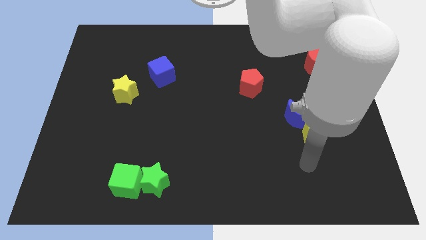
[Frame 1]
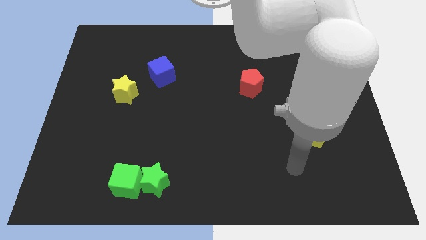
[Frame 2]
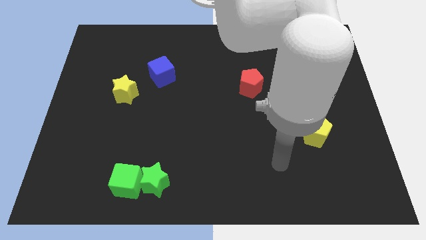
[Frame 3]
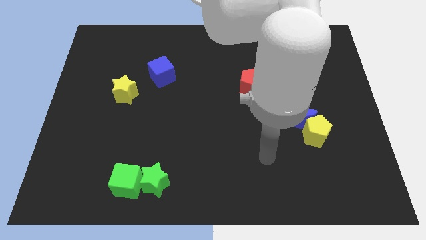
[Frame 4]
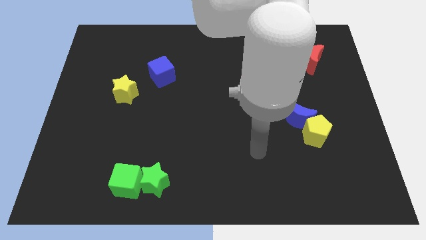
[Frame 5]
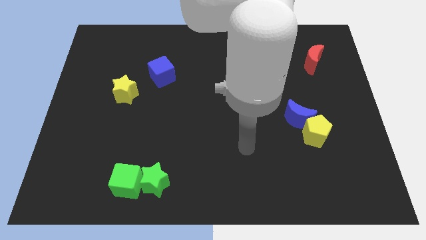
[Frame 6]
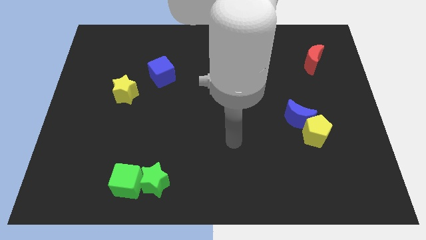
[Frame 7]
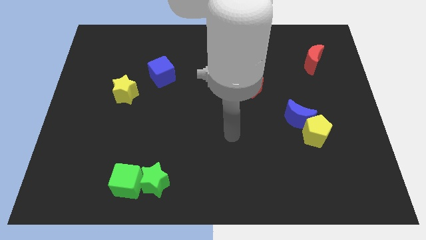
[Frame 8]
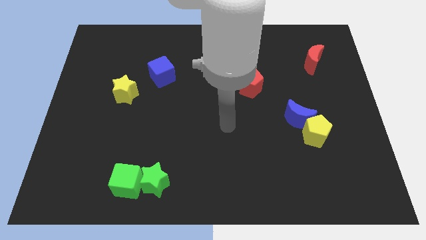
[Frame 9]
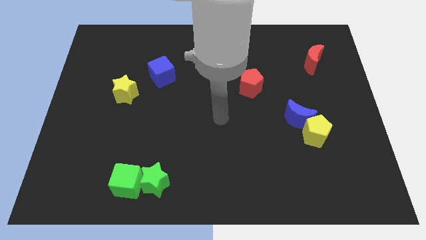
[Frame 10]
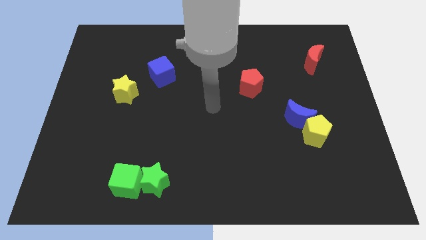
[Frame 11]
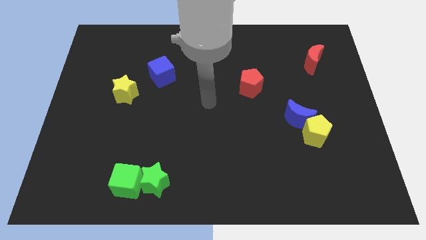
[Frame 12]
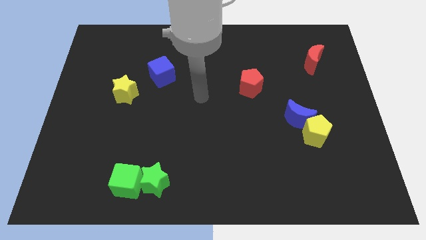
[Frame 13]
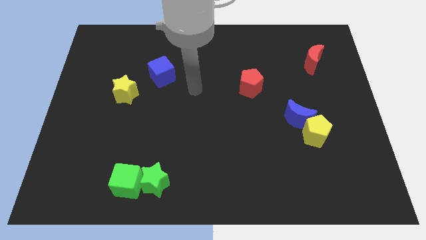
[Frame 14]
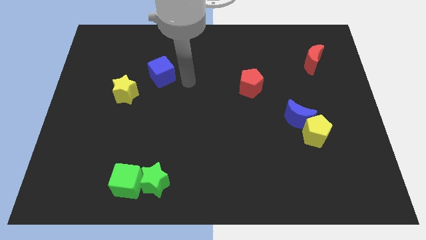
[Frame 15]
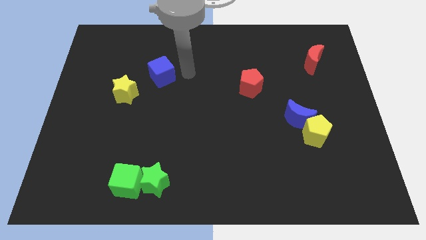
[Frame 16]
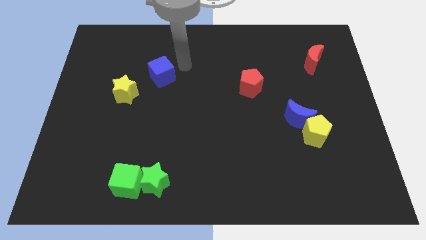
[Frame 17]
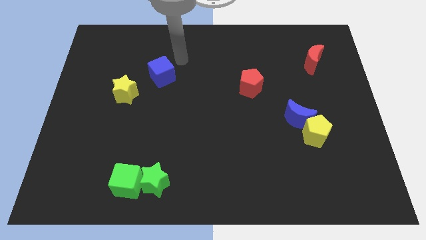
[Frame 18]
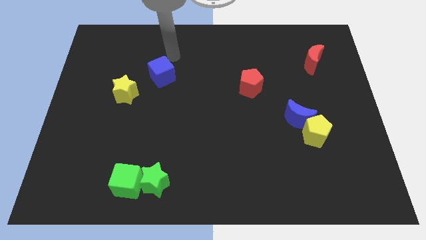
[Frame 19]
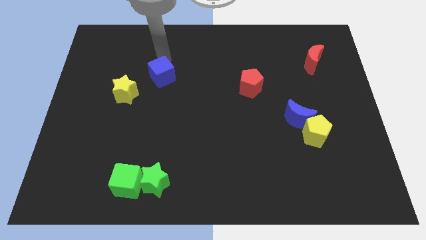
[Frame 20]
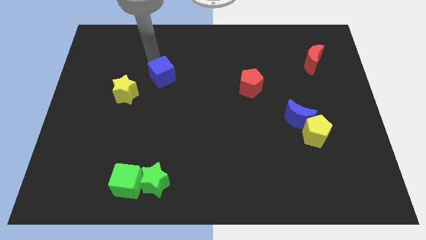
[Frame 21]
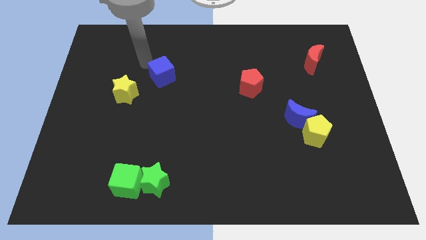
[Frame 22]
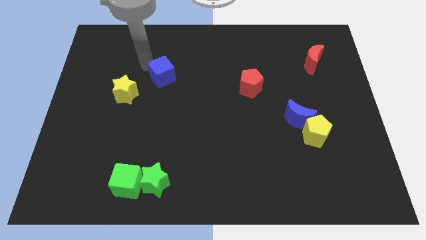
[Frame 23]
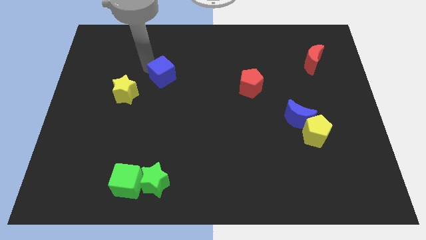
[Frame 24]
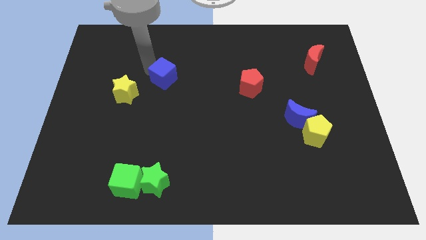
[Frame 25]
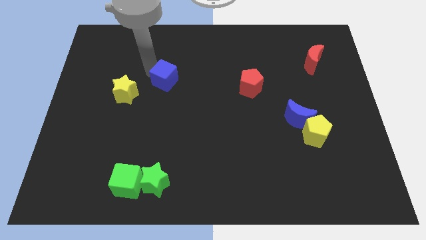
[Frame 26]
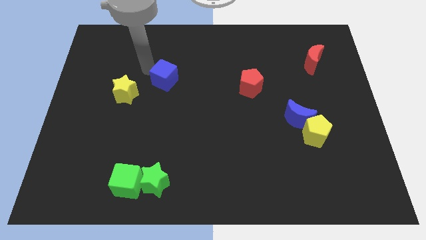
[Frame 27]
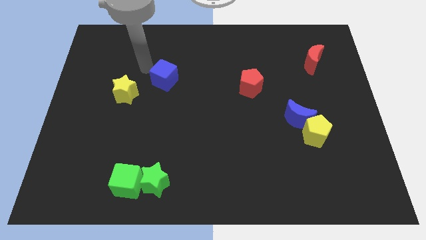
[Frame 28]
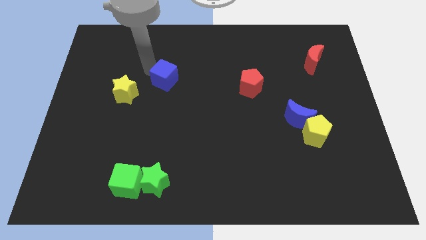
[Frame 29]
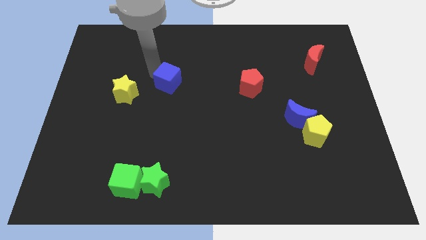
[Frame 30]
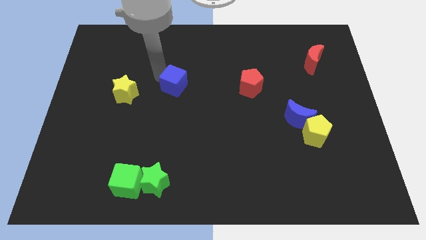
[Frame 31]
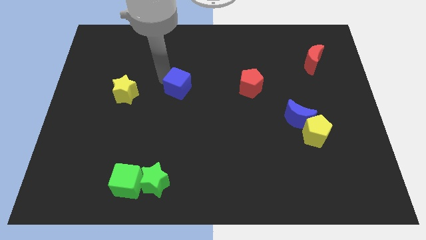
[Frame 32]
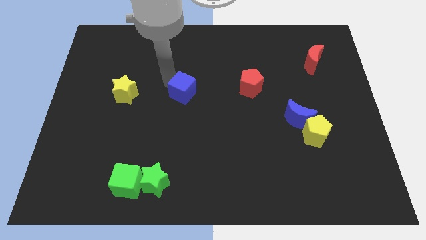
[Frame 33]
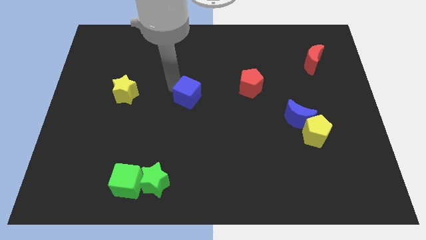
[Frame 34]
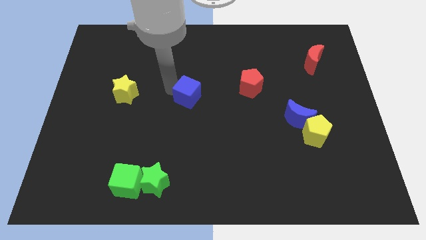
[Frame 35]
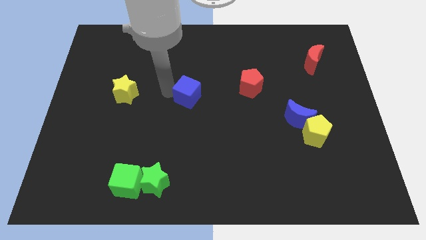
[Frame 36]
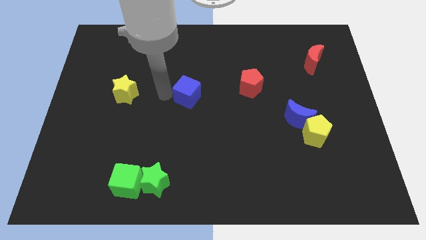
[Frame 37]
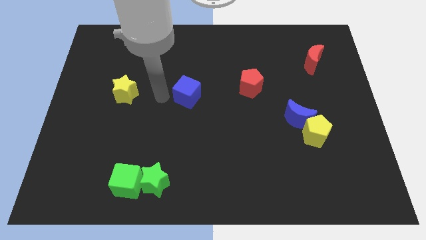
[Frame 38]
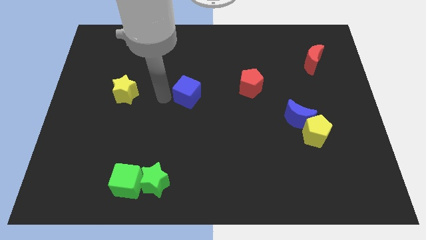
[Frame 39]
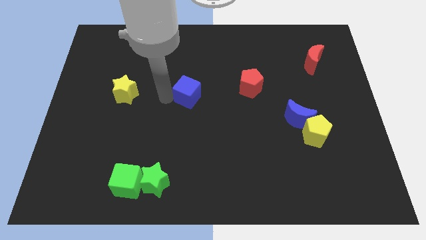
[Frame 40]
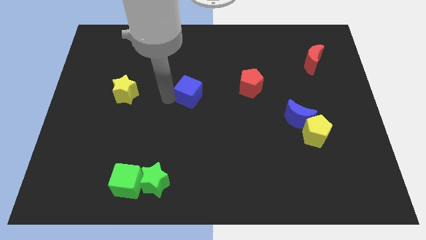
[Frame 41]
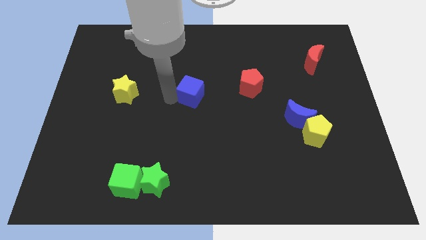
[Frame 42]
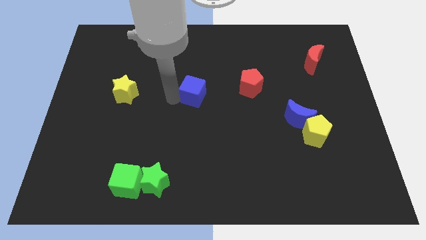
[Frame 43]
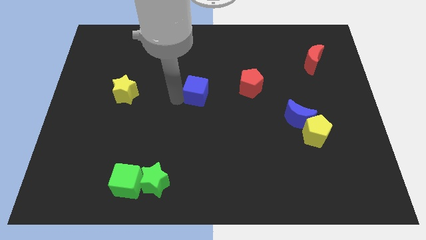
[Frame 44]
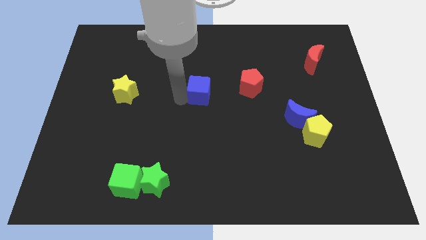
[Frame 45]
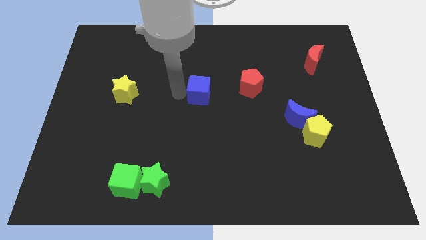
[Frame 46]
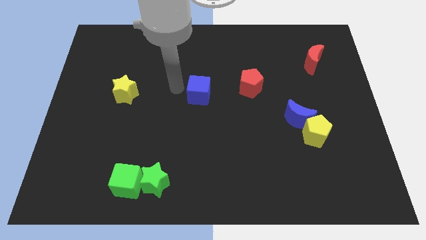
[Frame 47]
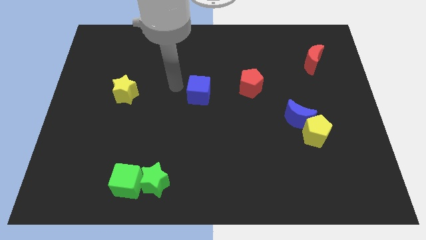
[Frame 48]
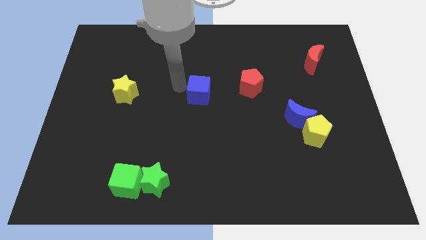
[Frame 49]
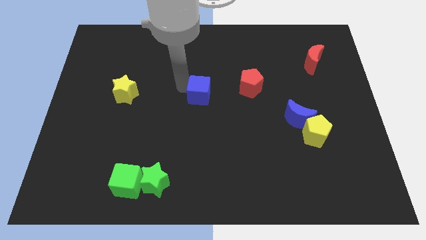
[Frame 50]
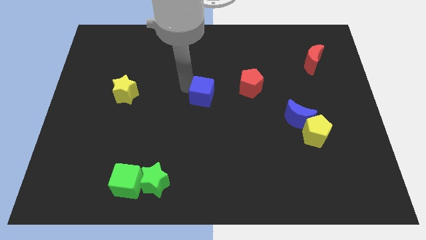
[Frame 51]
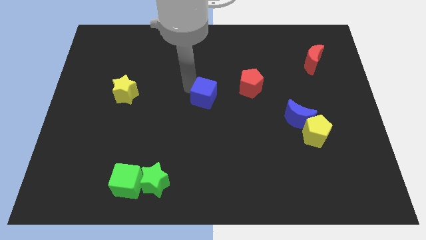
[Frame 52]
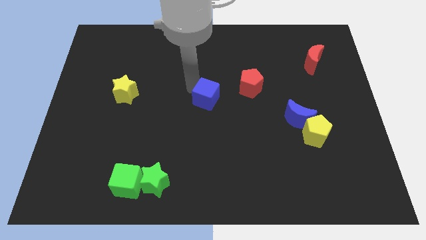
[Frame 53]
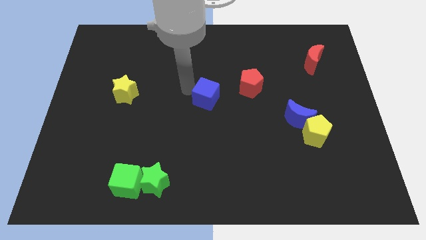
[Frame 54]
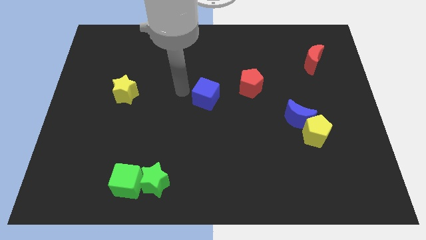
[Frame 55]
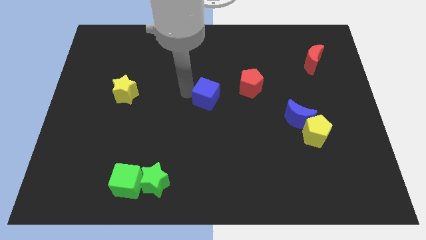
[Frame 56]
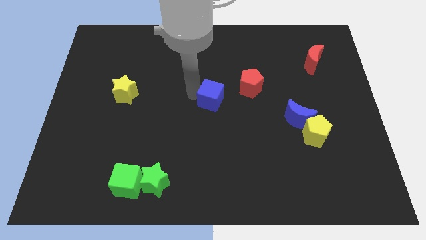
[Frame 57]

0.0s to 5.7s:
move the blue cube to the bottom left of the red pentagon

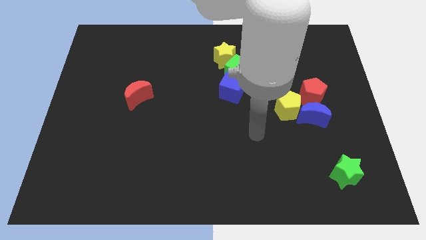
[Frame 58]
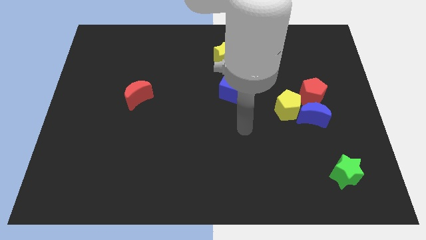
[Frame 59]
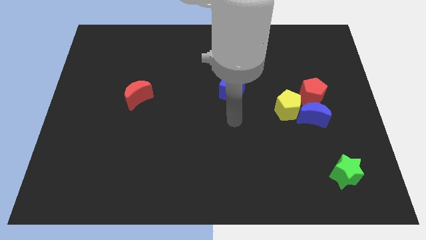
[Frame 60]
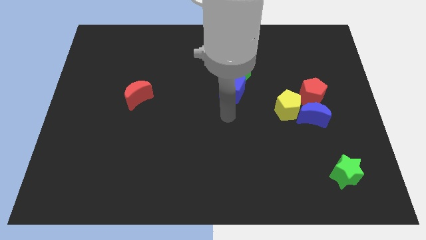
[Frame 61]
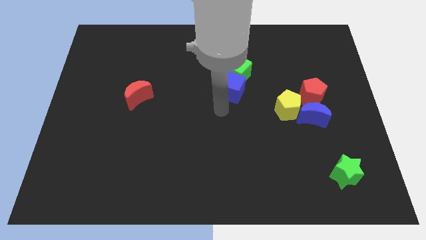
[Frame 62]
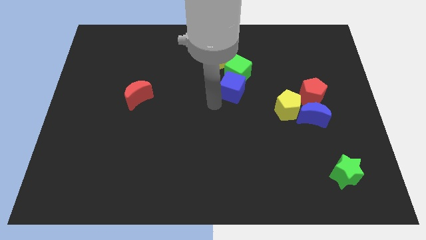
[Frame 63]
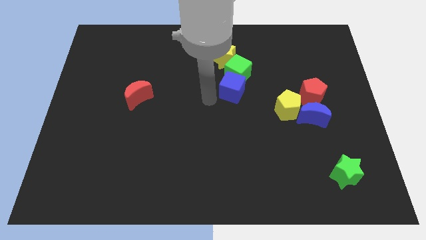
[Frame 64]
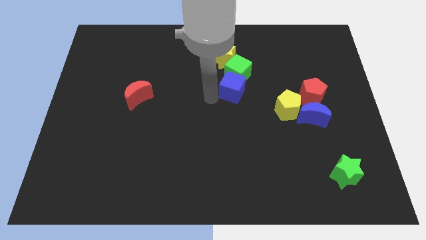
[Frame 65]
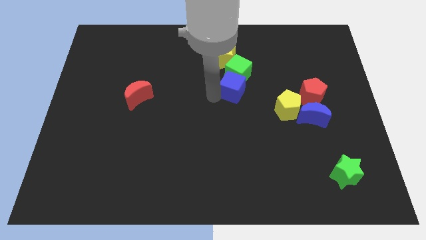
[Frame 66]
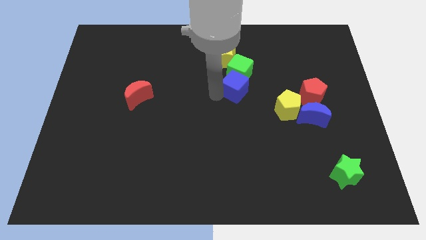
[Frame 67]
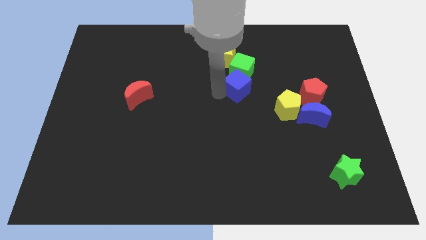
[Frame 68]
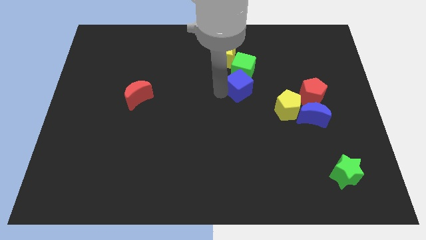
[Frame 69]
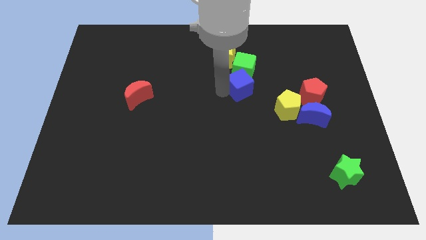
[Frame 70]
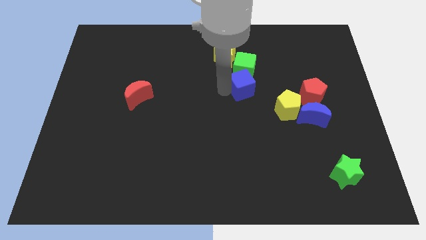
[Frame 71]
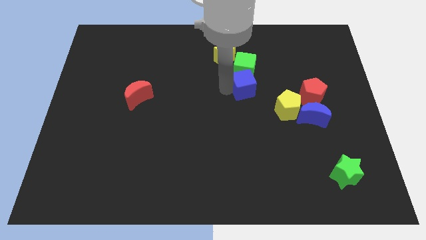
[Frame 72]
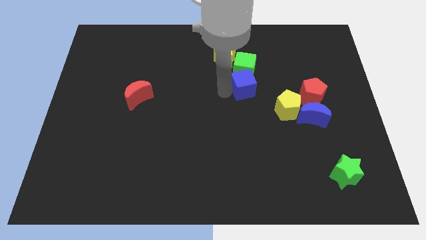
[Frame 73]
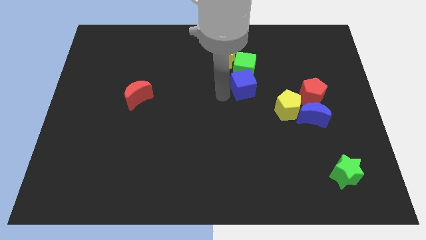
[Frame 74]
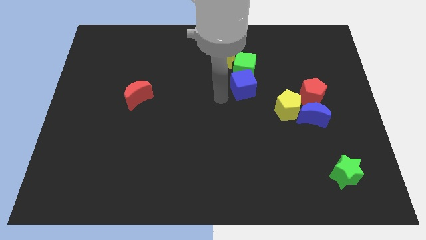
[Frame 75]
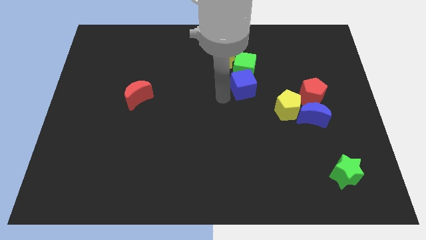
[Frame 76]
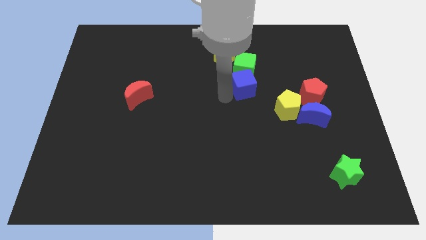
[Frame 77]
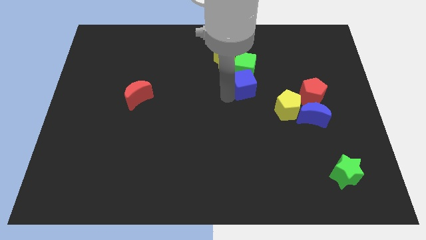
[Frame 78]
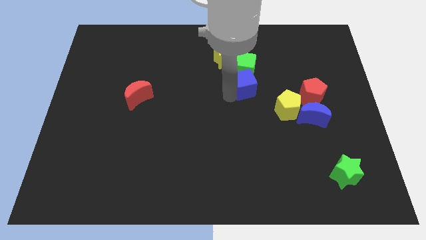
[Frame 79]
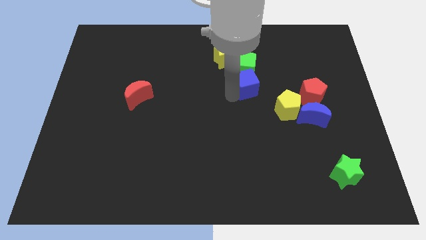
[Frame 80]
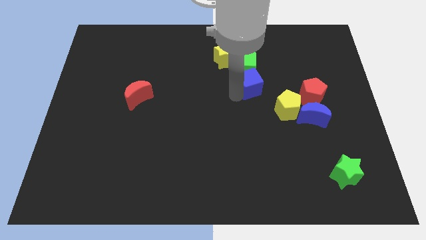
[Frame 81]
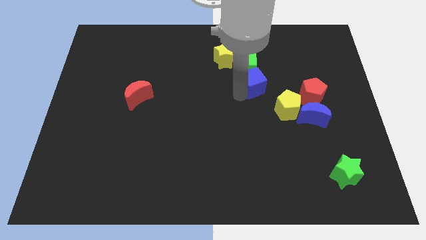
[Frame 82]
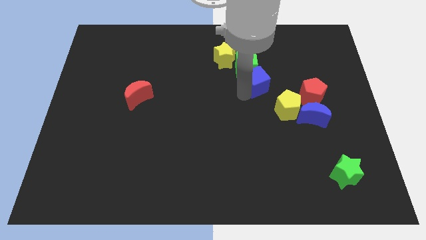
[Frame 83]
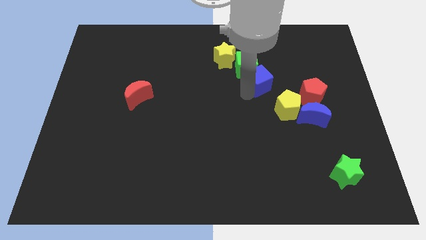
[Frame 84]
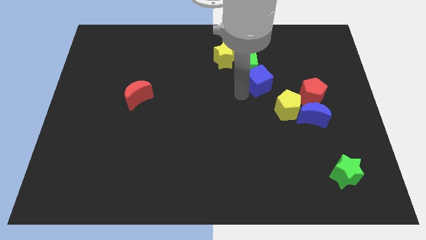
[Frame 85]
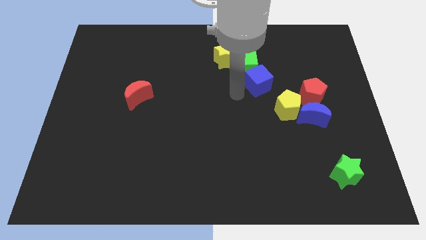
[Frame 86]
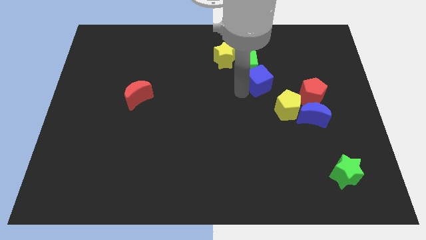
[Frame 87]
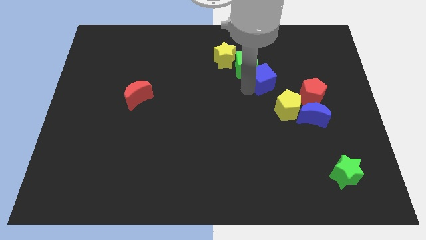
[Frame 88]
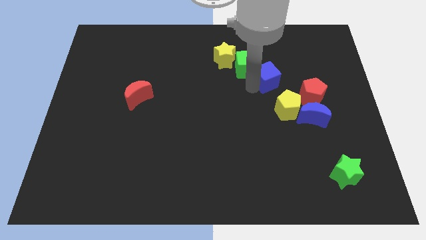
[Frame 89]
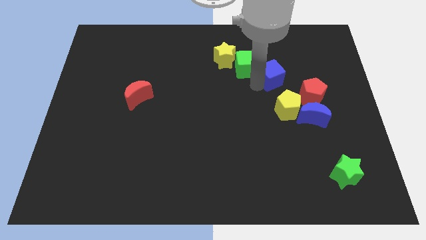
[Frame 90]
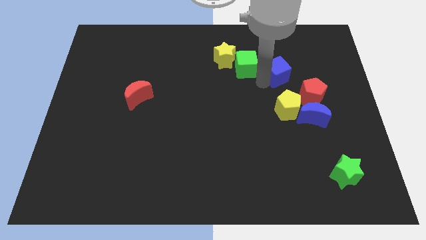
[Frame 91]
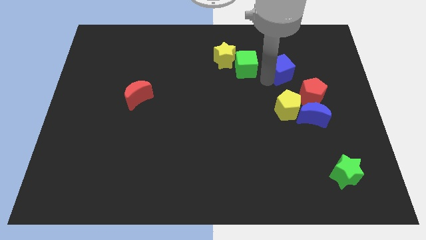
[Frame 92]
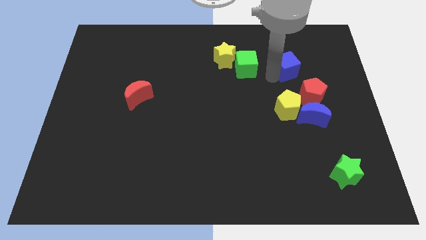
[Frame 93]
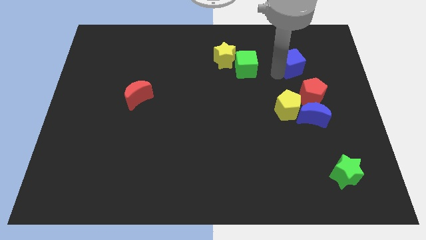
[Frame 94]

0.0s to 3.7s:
slide the blue cube above the red pentagon
